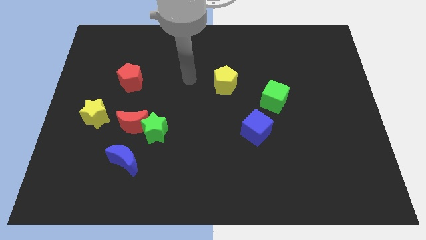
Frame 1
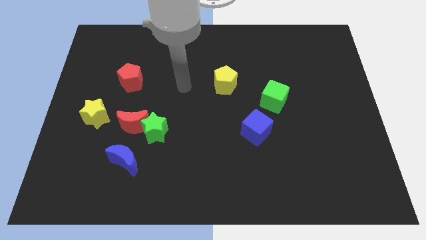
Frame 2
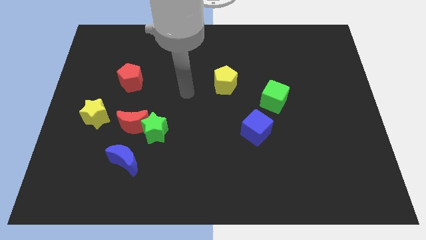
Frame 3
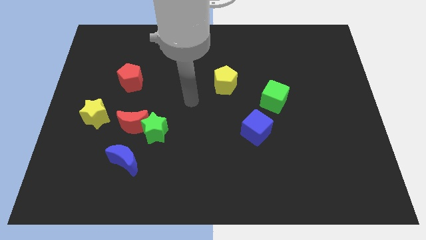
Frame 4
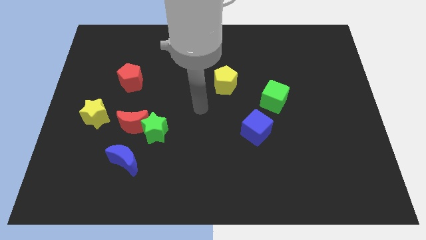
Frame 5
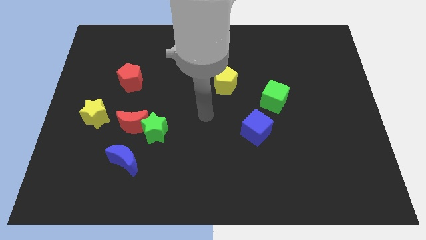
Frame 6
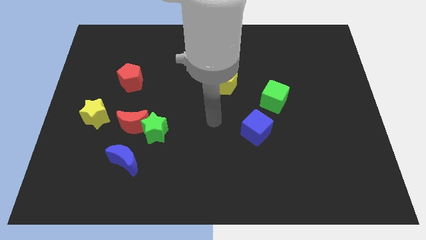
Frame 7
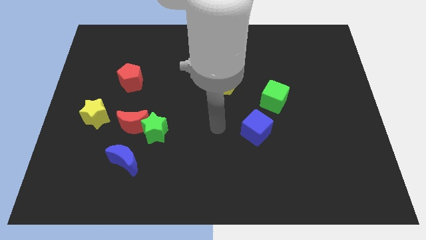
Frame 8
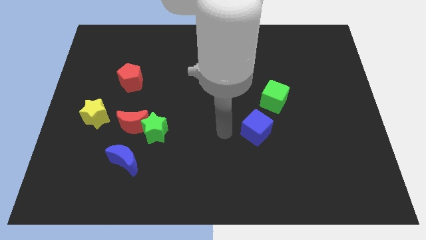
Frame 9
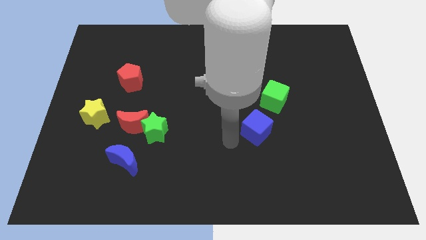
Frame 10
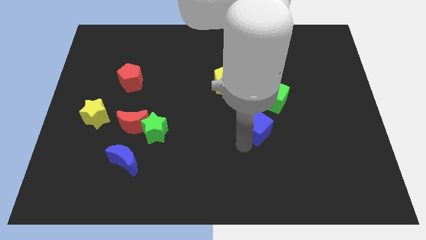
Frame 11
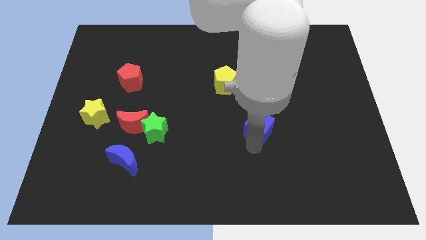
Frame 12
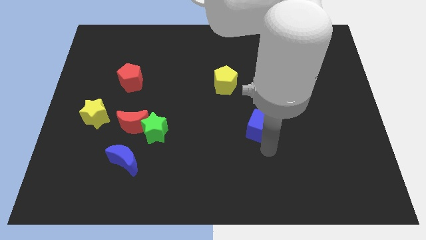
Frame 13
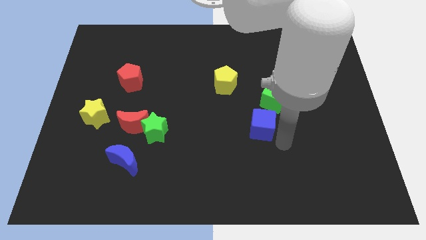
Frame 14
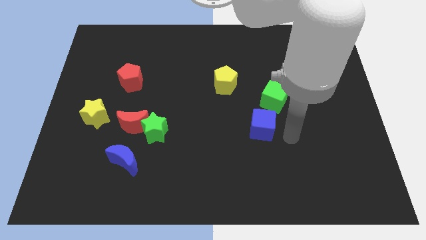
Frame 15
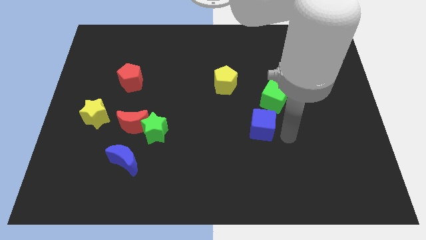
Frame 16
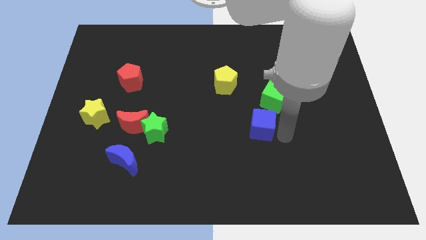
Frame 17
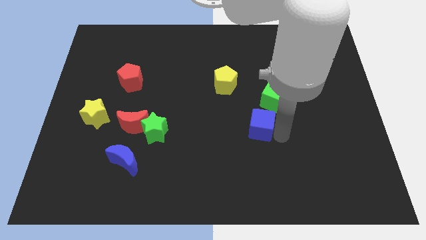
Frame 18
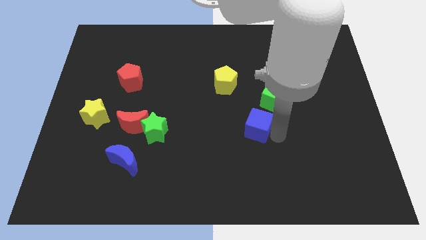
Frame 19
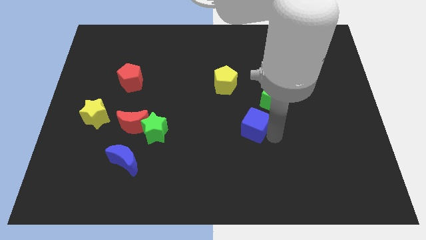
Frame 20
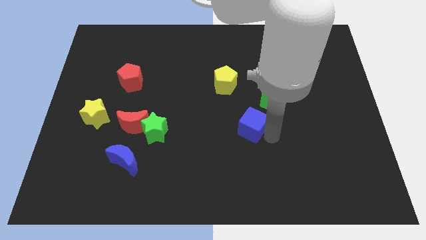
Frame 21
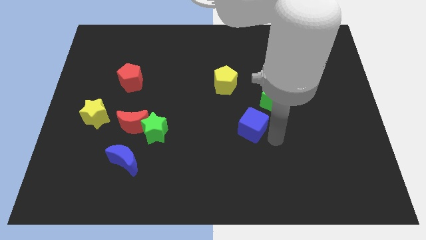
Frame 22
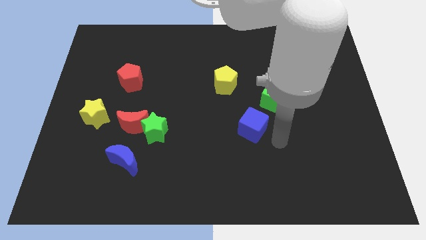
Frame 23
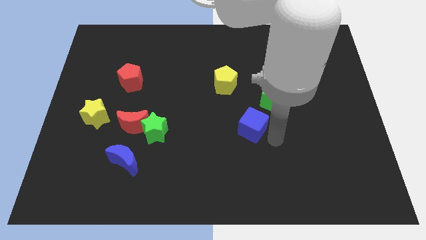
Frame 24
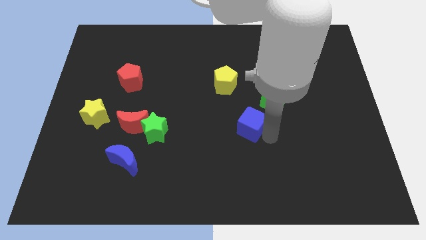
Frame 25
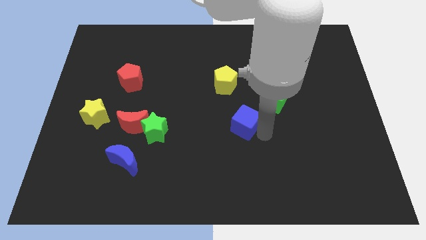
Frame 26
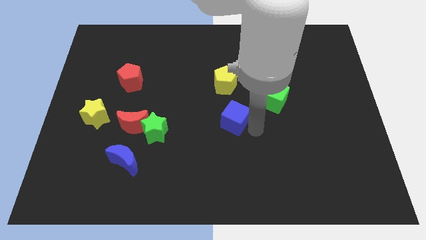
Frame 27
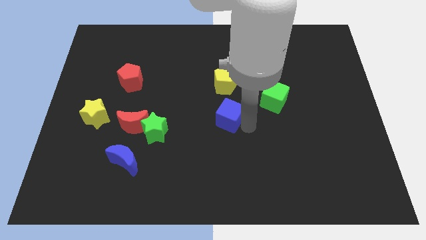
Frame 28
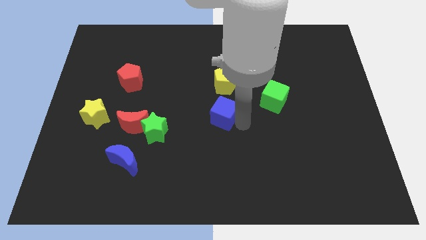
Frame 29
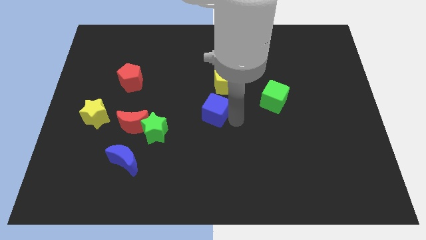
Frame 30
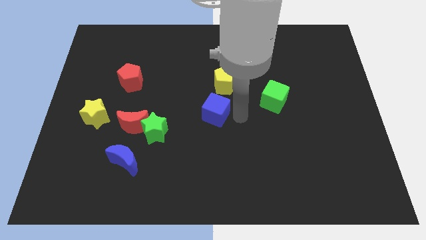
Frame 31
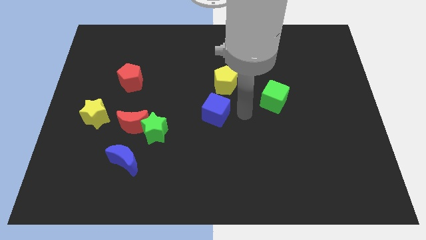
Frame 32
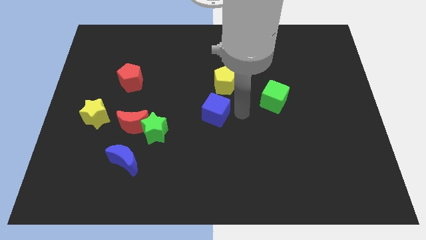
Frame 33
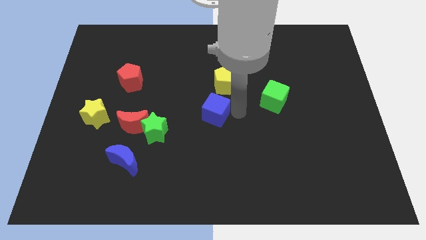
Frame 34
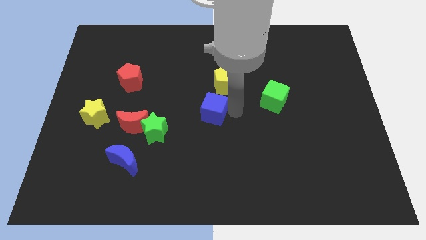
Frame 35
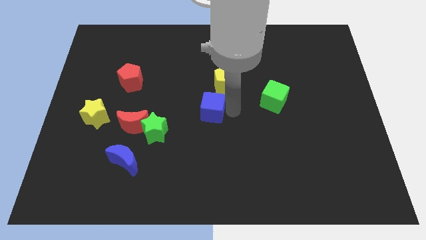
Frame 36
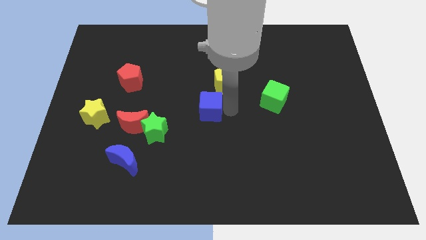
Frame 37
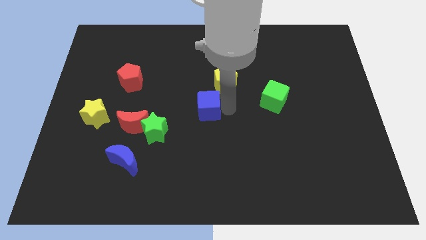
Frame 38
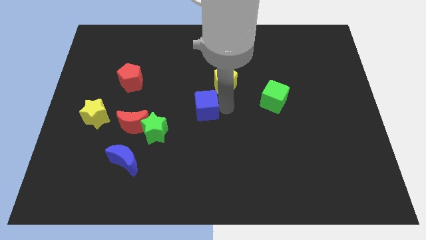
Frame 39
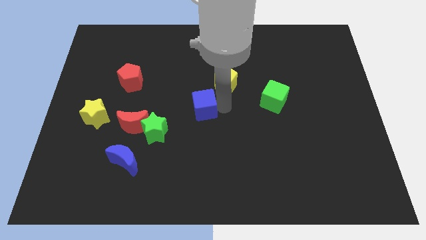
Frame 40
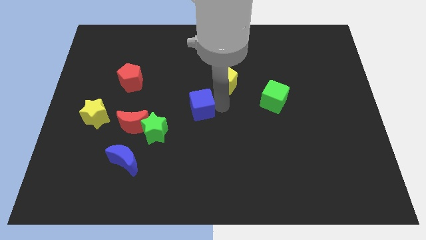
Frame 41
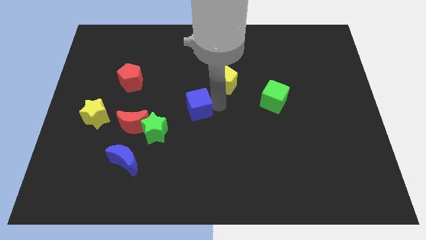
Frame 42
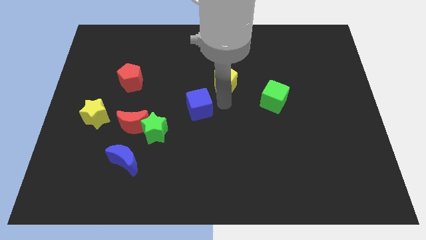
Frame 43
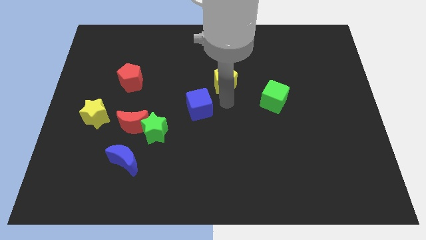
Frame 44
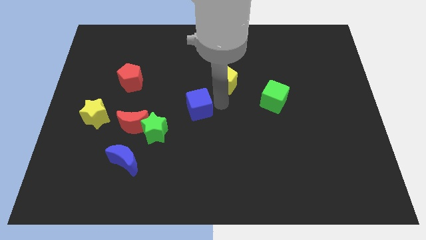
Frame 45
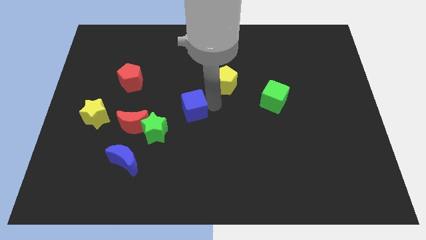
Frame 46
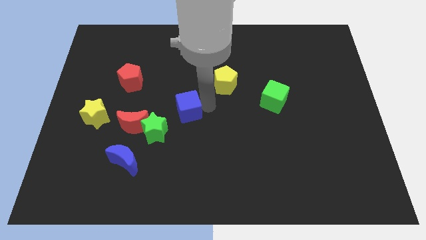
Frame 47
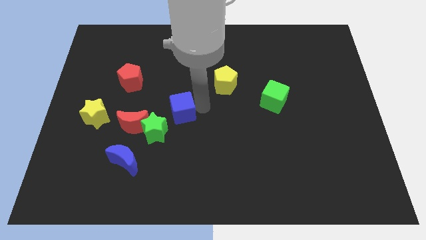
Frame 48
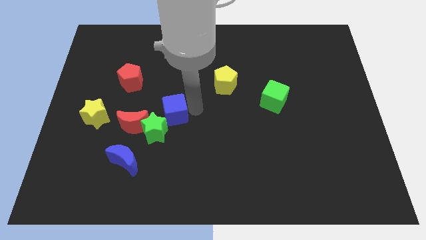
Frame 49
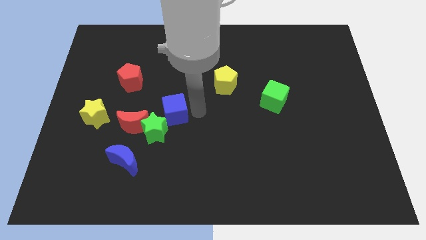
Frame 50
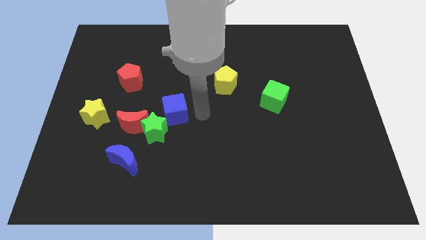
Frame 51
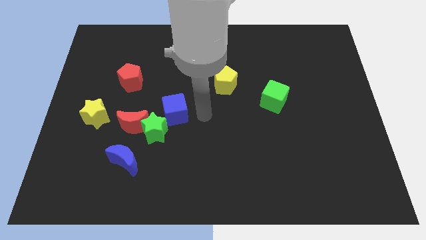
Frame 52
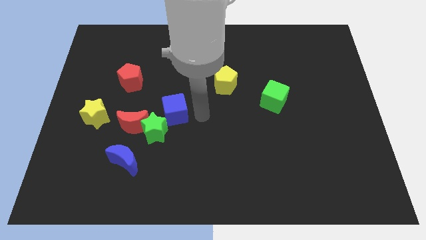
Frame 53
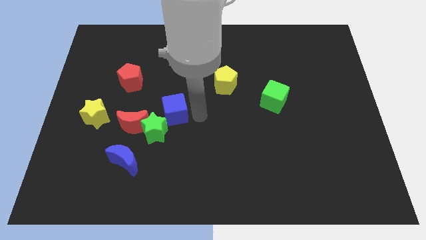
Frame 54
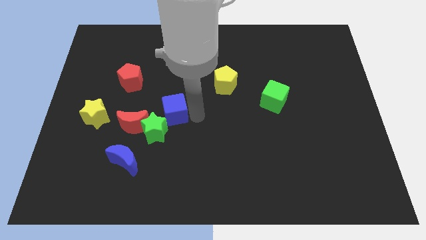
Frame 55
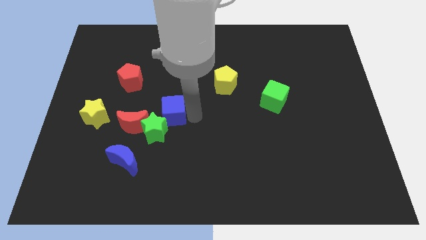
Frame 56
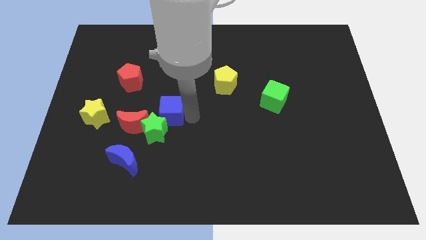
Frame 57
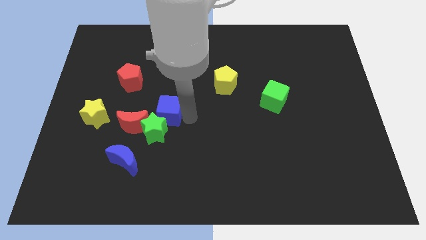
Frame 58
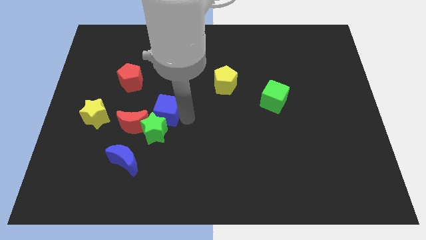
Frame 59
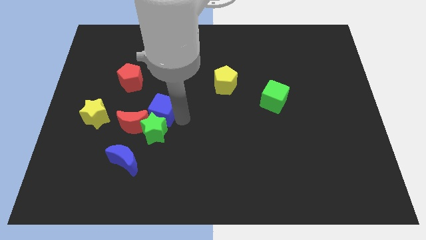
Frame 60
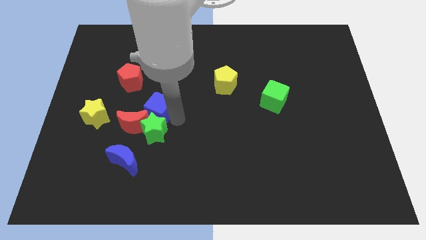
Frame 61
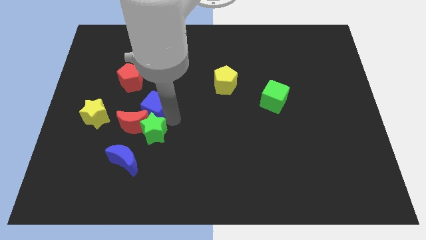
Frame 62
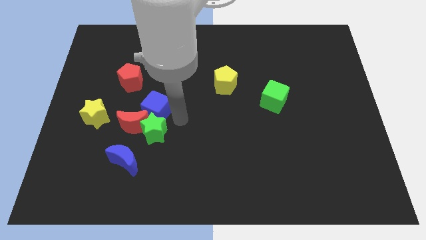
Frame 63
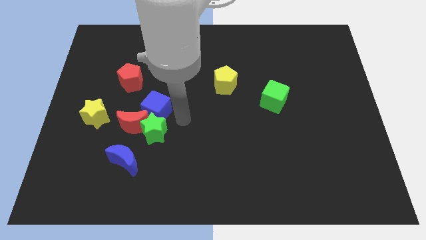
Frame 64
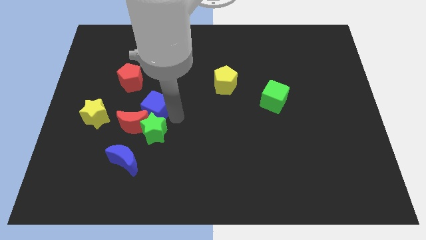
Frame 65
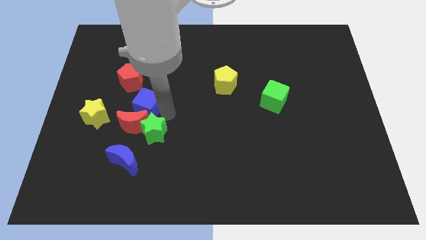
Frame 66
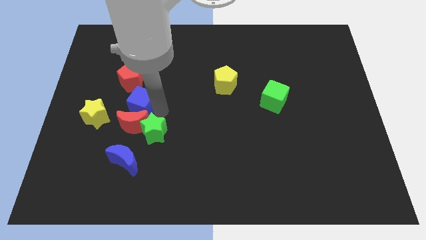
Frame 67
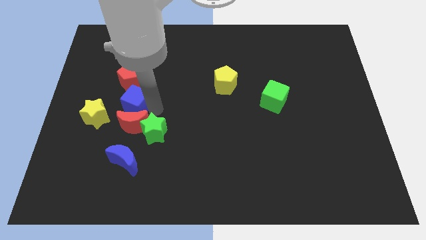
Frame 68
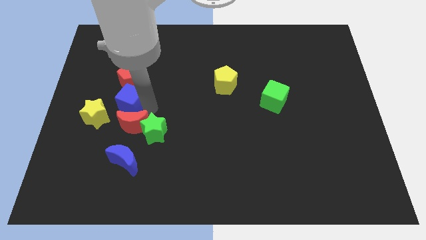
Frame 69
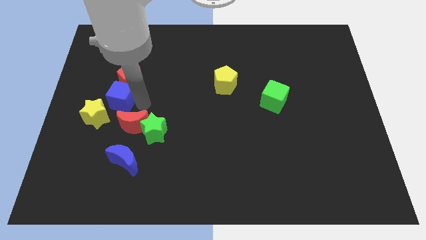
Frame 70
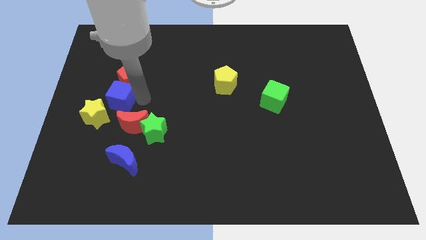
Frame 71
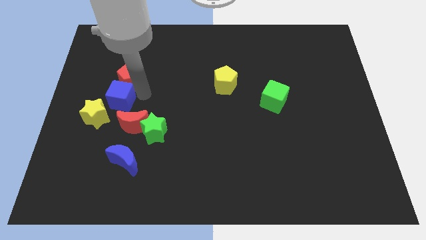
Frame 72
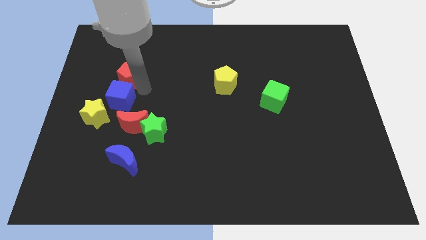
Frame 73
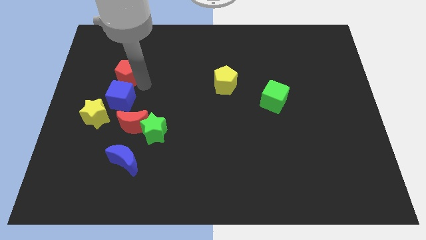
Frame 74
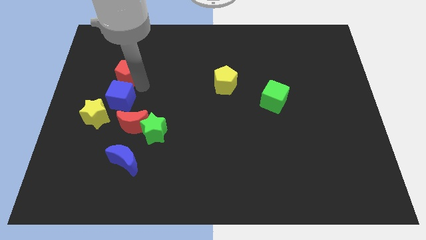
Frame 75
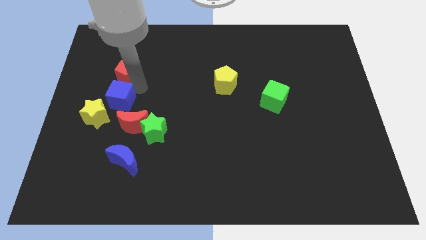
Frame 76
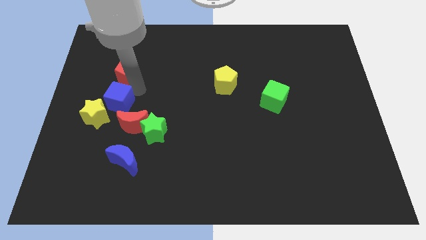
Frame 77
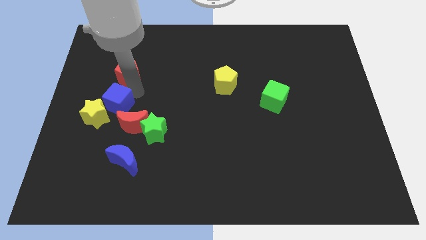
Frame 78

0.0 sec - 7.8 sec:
slide the blue cube to the yellow star
